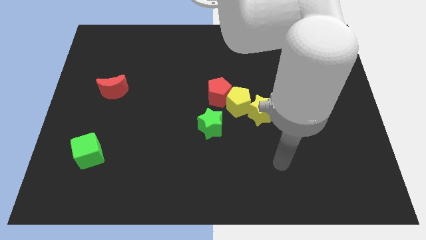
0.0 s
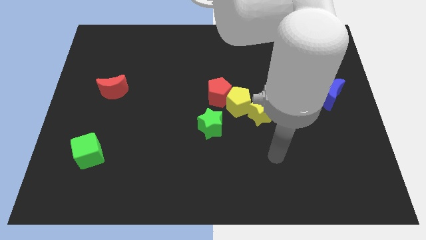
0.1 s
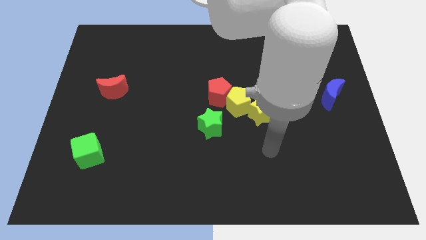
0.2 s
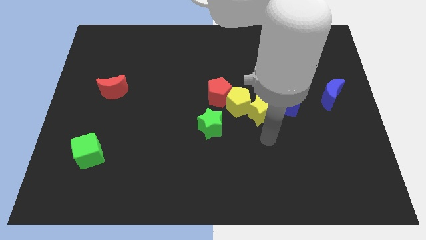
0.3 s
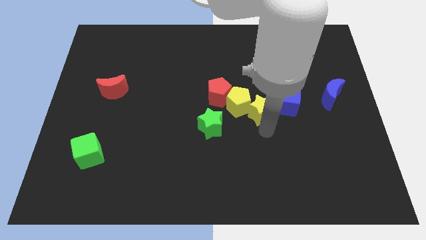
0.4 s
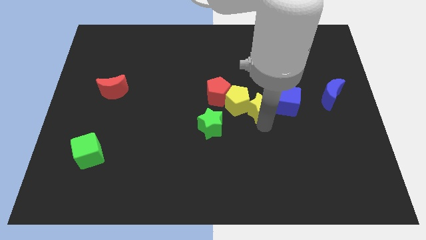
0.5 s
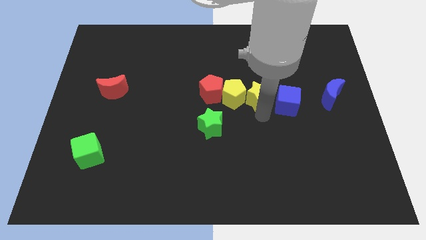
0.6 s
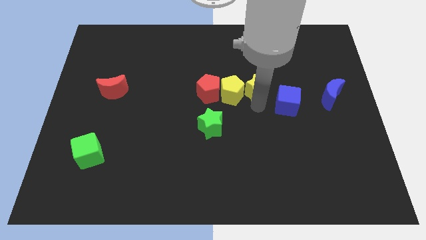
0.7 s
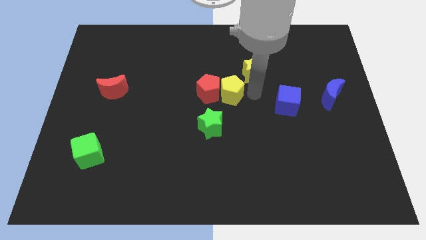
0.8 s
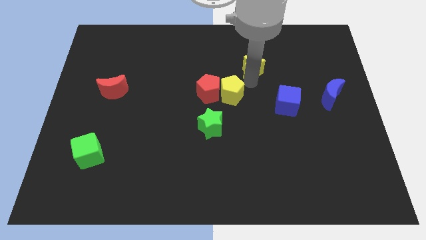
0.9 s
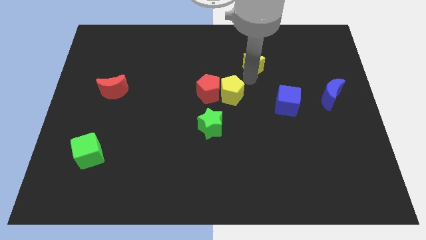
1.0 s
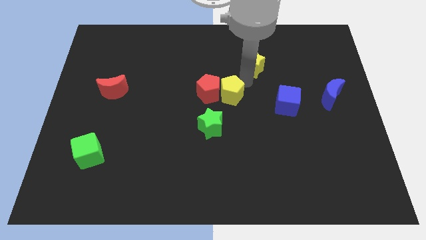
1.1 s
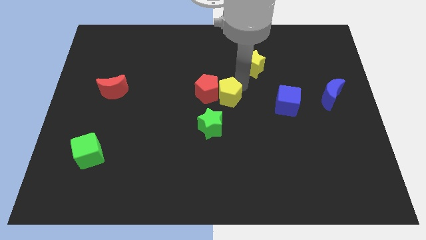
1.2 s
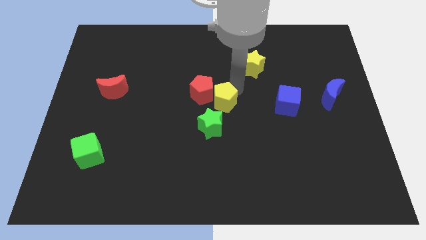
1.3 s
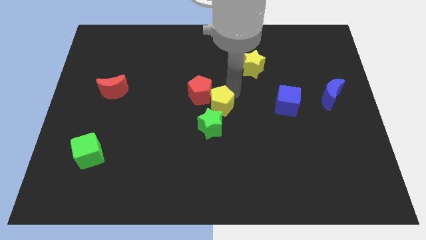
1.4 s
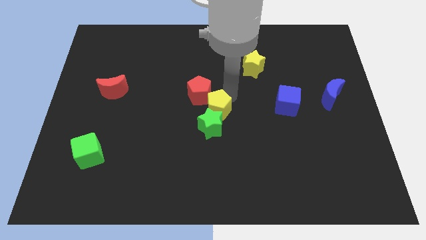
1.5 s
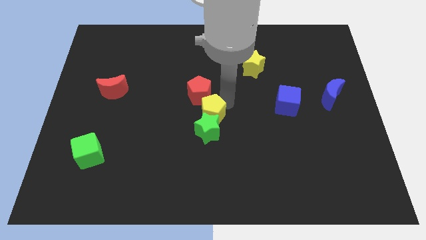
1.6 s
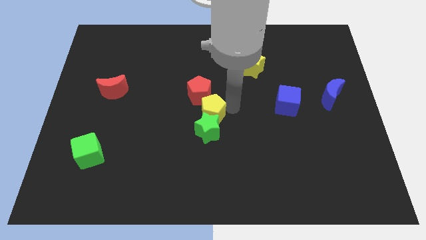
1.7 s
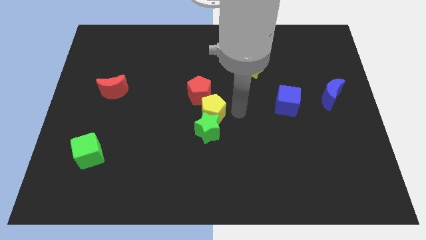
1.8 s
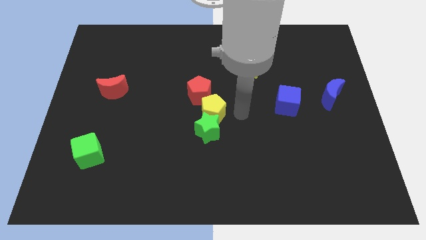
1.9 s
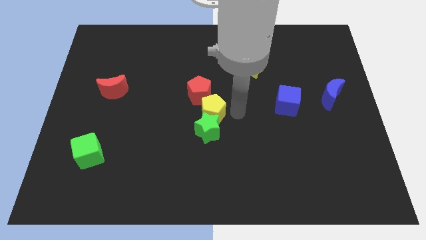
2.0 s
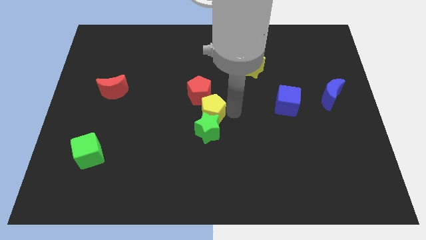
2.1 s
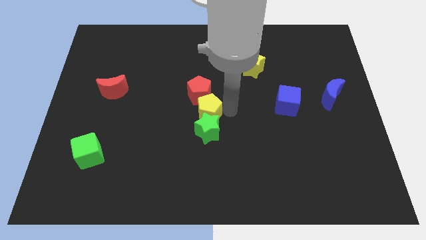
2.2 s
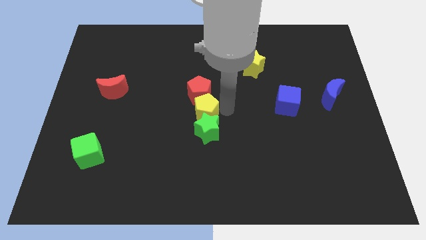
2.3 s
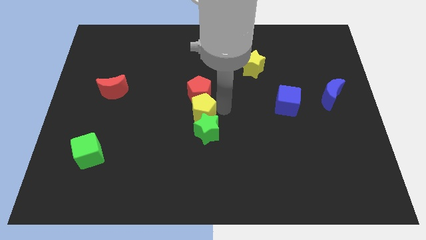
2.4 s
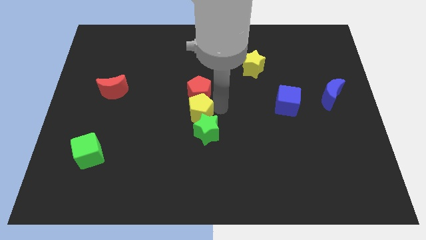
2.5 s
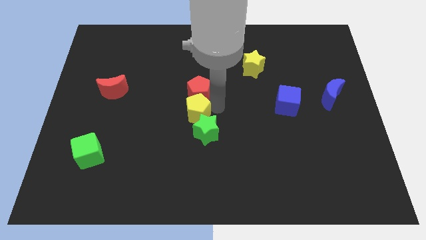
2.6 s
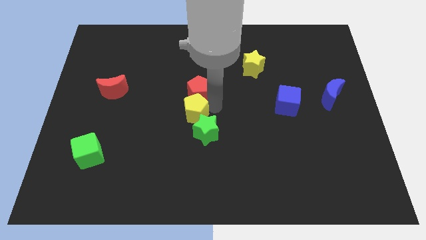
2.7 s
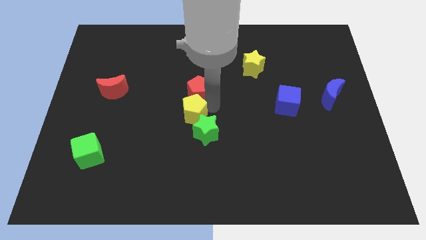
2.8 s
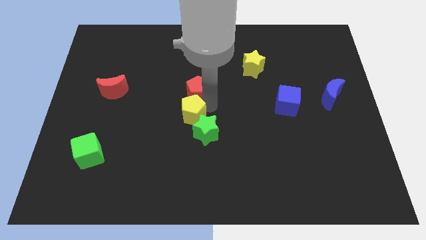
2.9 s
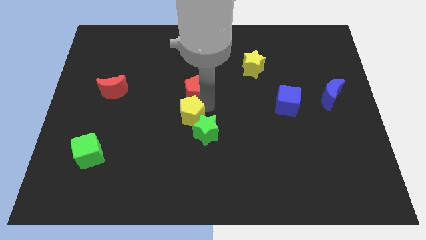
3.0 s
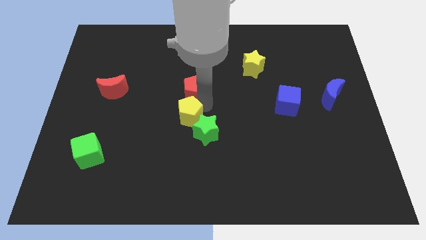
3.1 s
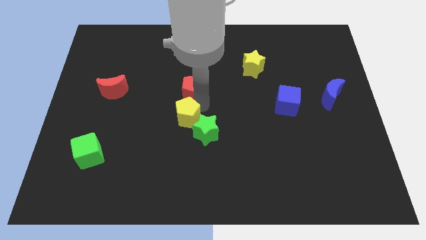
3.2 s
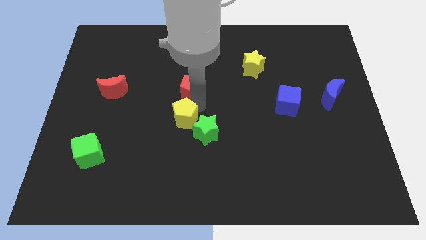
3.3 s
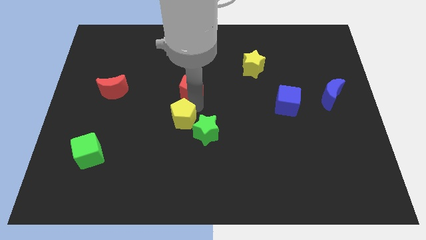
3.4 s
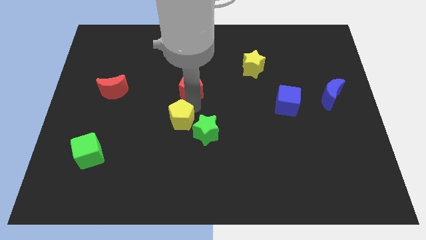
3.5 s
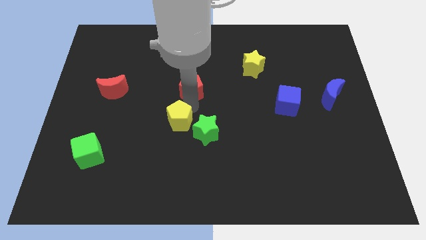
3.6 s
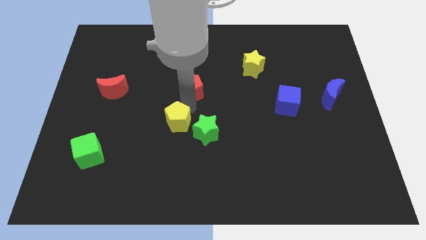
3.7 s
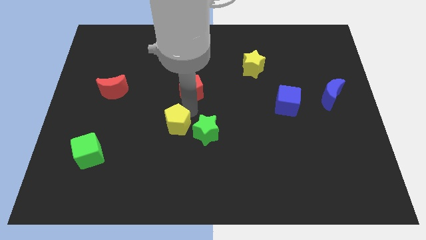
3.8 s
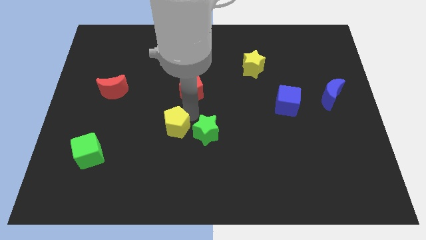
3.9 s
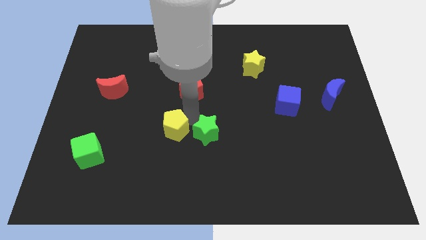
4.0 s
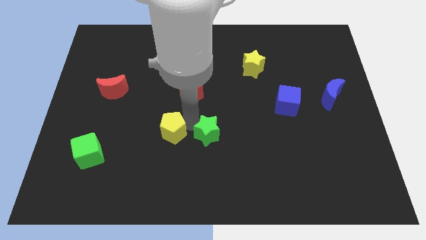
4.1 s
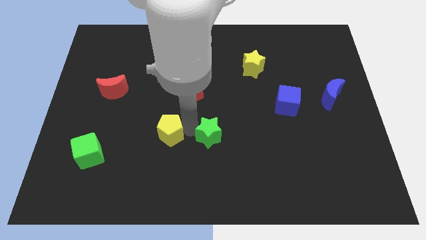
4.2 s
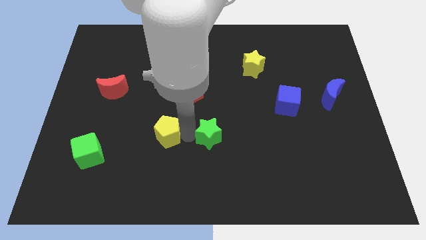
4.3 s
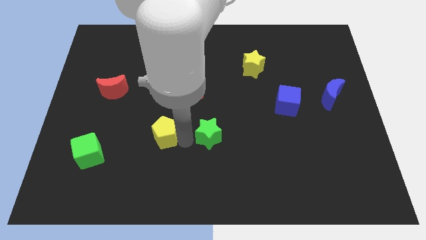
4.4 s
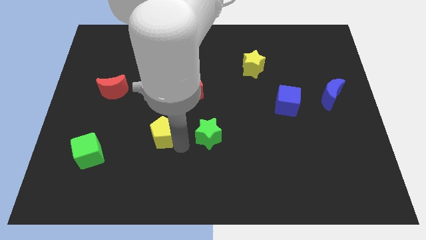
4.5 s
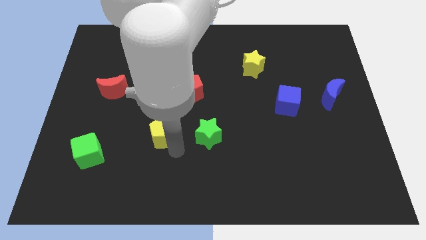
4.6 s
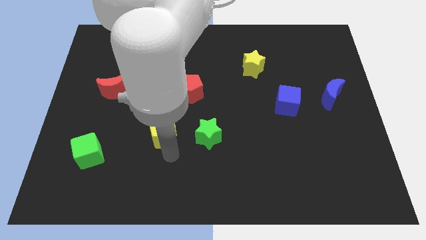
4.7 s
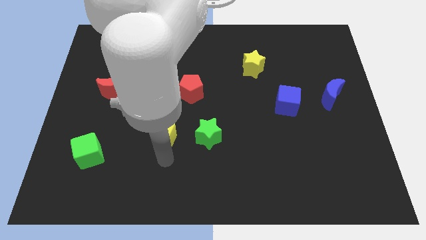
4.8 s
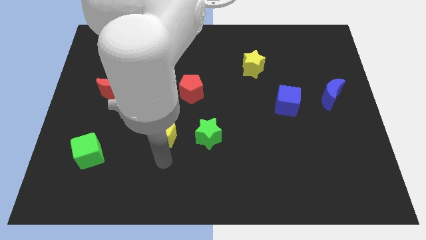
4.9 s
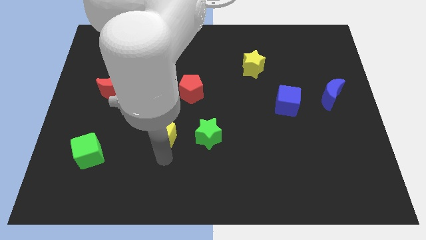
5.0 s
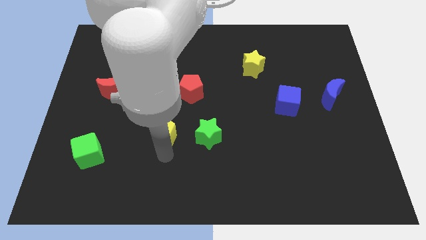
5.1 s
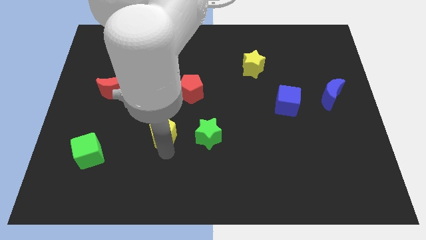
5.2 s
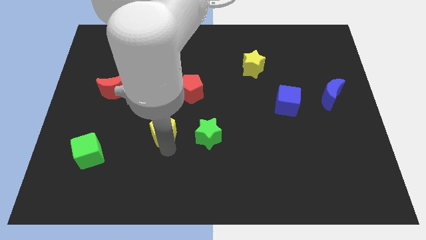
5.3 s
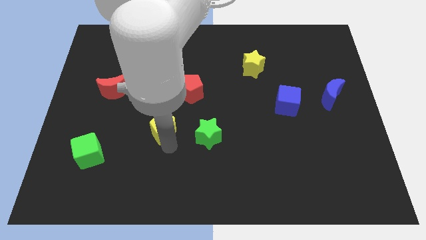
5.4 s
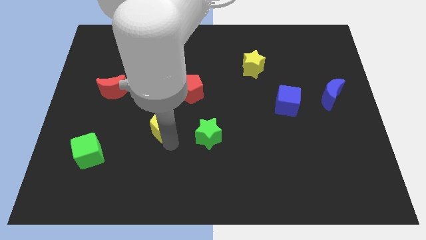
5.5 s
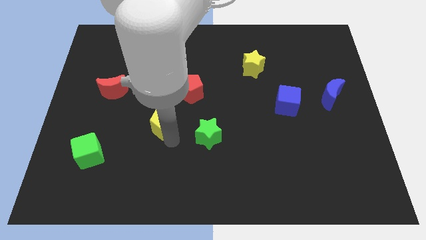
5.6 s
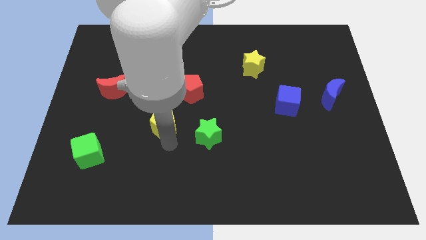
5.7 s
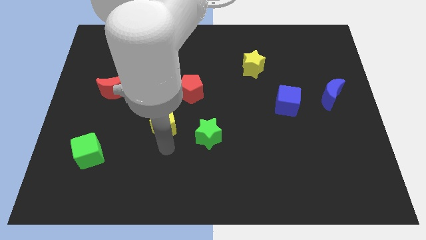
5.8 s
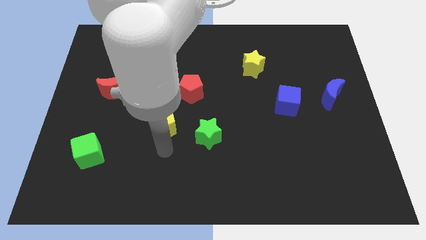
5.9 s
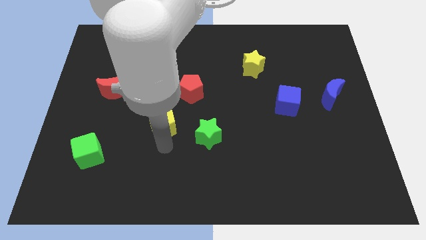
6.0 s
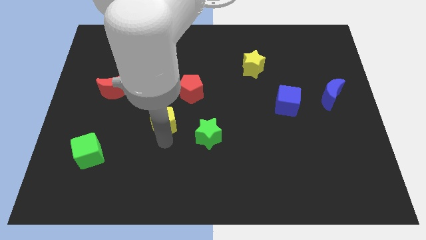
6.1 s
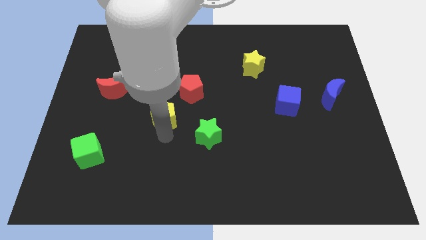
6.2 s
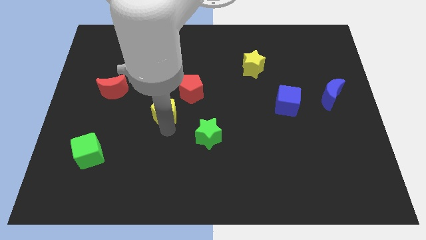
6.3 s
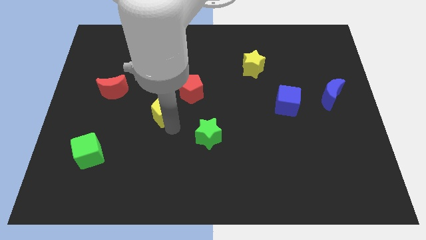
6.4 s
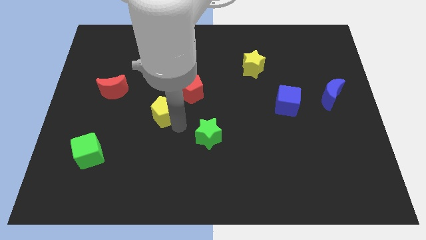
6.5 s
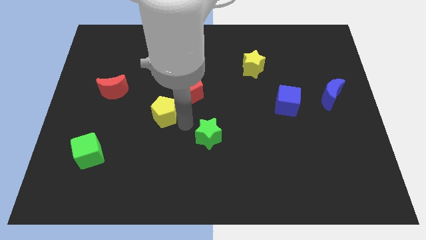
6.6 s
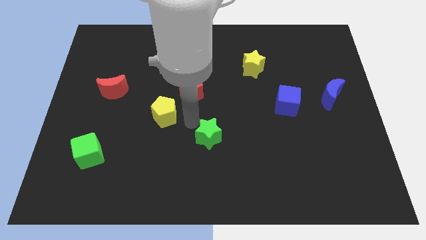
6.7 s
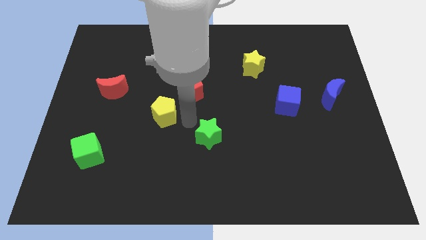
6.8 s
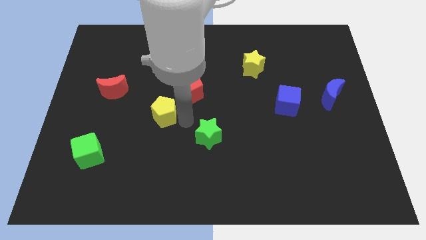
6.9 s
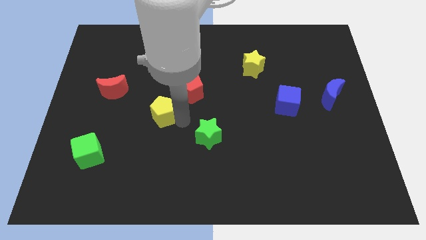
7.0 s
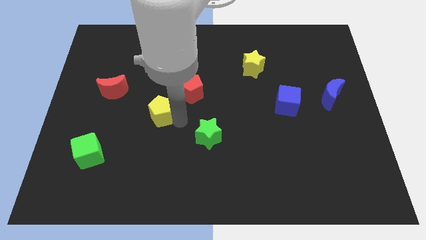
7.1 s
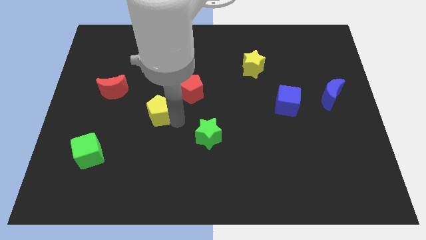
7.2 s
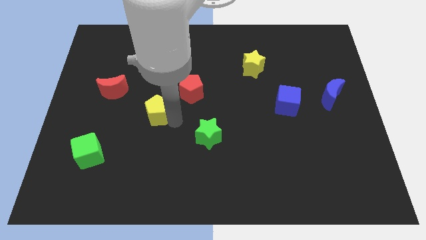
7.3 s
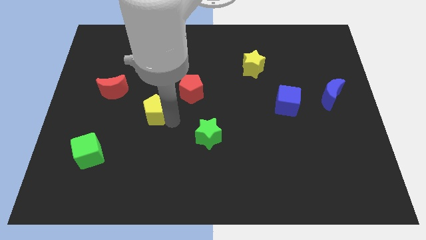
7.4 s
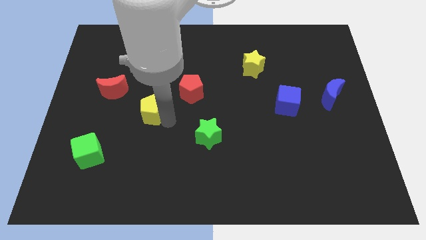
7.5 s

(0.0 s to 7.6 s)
slide the yellow pentagon left

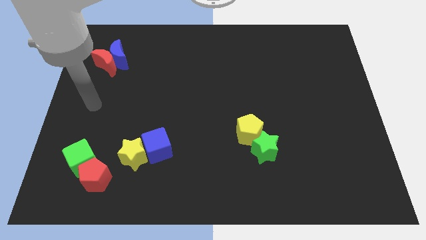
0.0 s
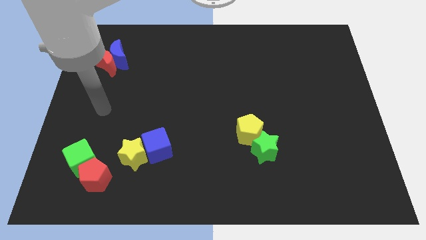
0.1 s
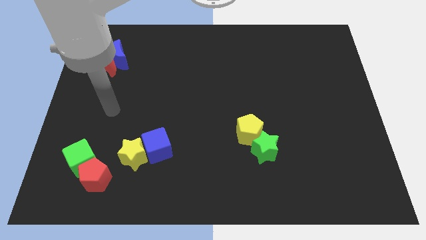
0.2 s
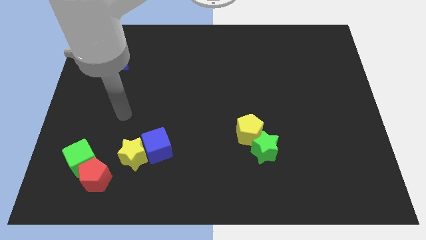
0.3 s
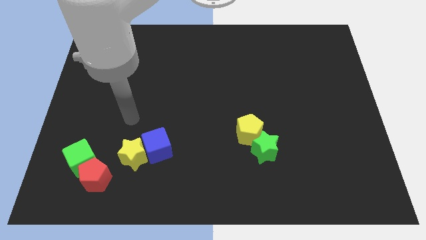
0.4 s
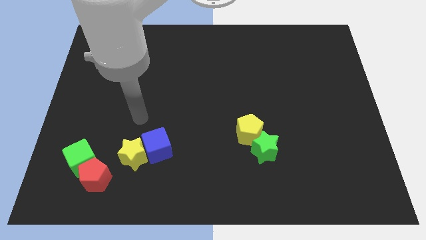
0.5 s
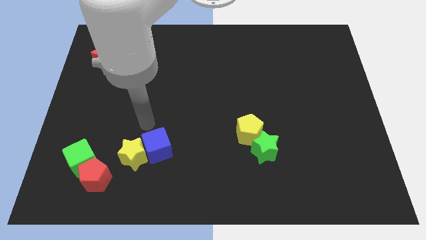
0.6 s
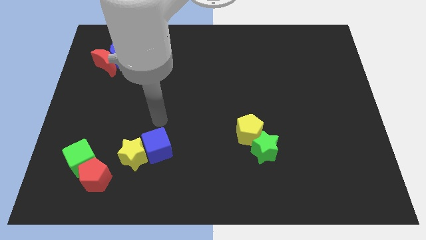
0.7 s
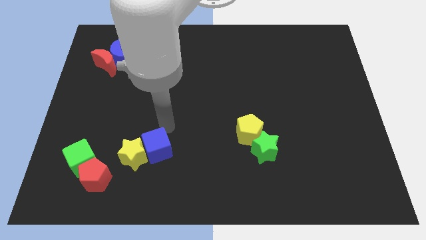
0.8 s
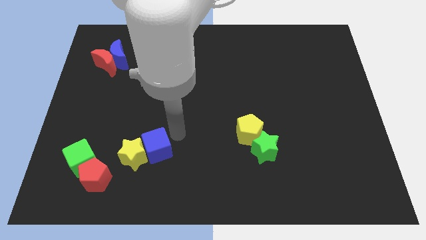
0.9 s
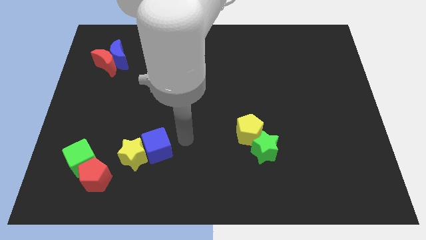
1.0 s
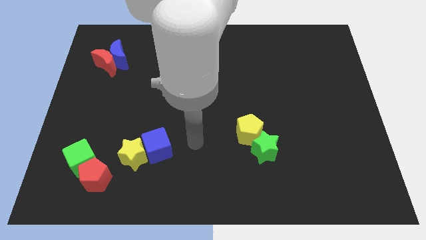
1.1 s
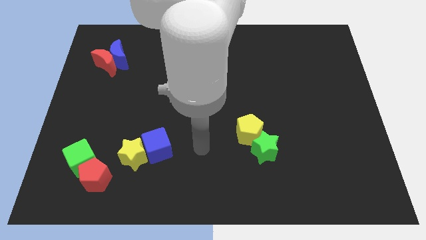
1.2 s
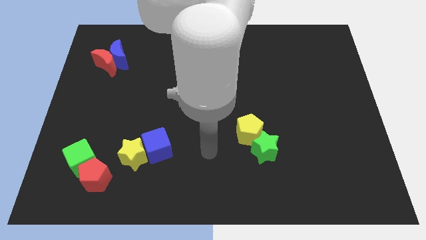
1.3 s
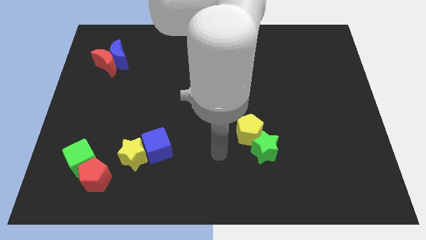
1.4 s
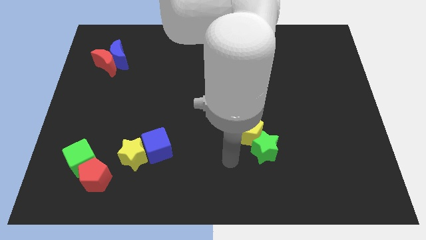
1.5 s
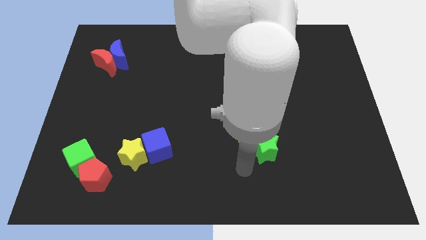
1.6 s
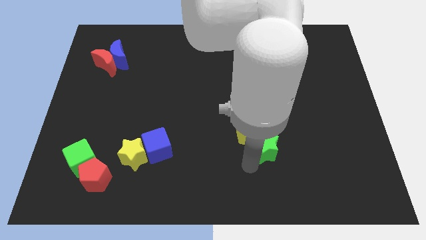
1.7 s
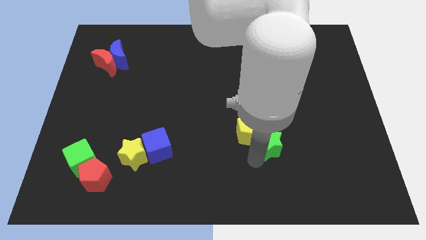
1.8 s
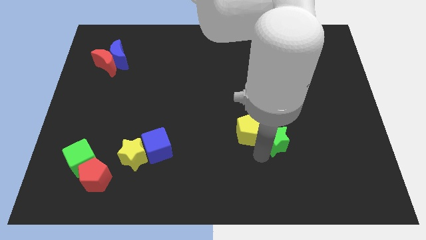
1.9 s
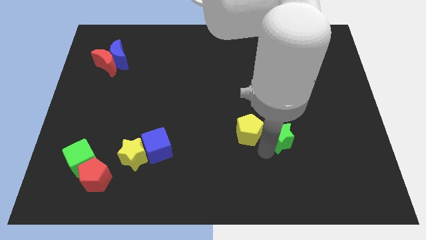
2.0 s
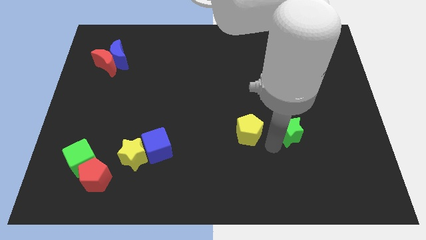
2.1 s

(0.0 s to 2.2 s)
slightly slide the green star up and right
